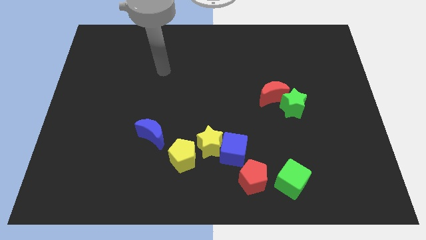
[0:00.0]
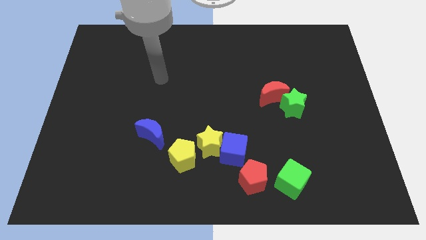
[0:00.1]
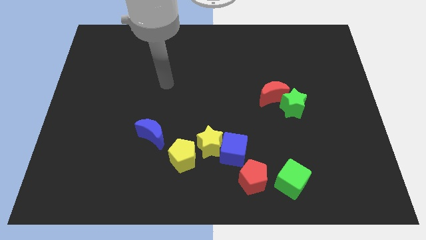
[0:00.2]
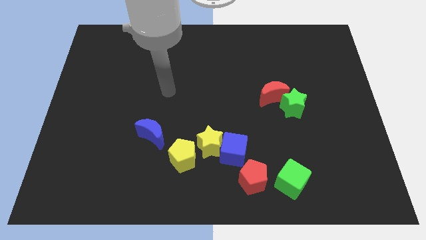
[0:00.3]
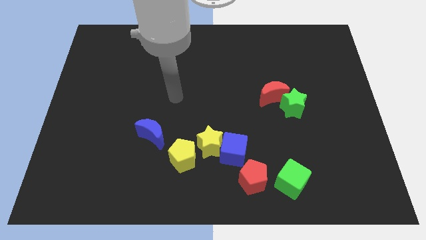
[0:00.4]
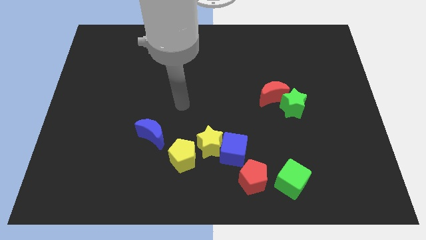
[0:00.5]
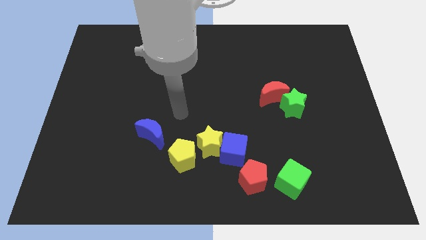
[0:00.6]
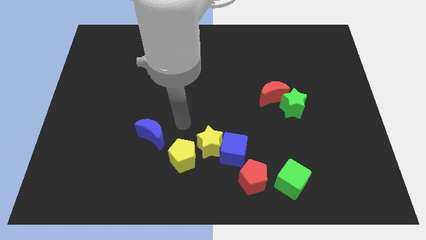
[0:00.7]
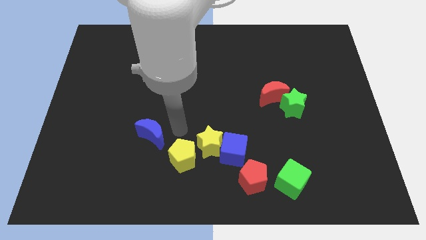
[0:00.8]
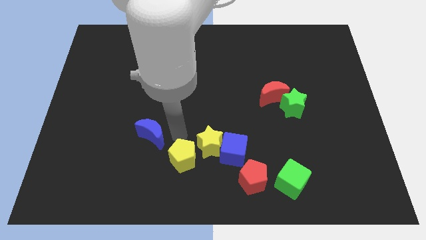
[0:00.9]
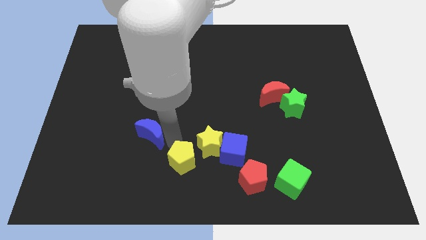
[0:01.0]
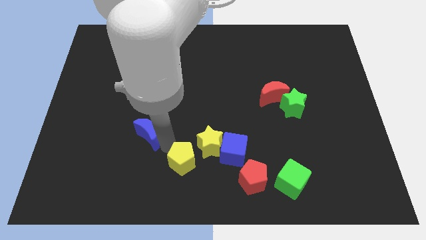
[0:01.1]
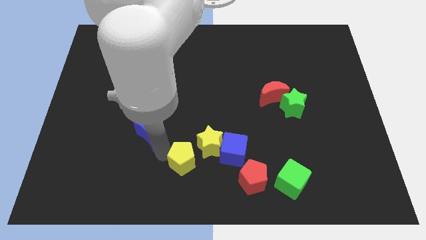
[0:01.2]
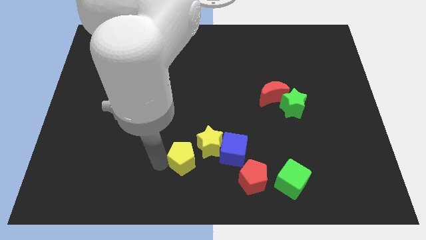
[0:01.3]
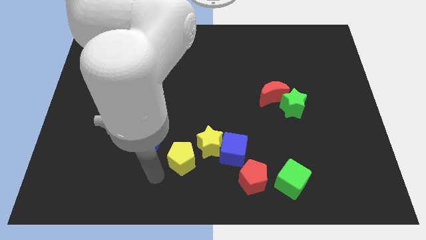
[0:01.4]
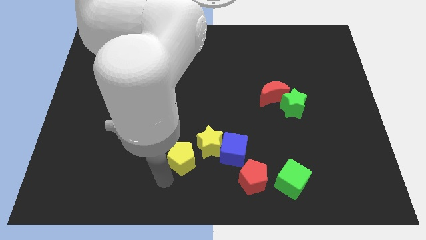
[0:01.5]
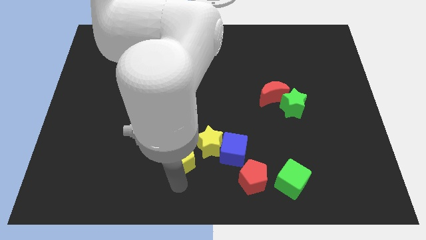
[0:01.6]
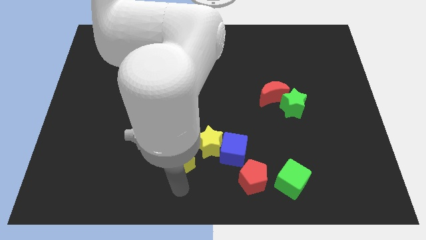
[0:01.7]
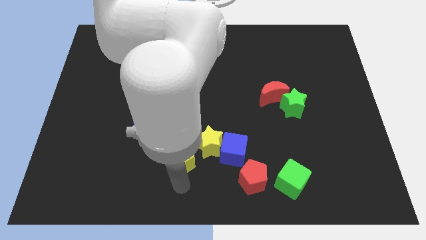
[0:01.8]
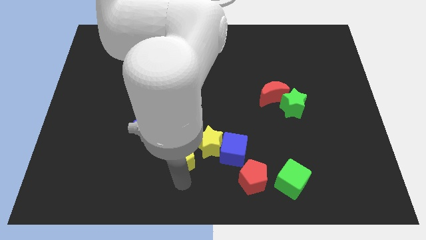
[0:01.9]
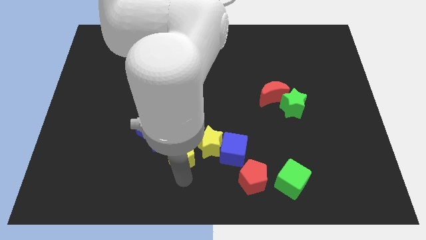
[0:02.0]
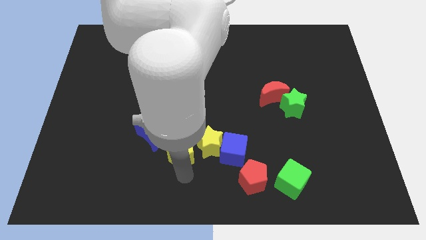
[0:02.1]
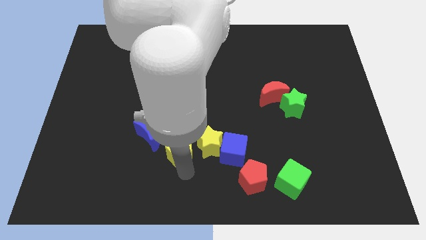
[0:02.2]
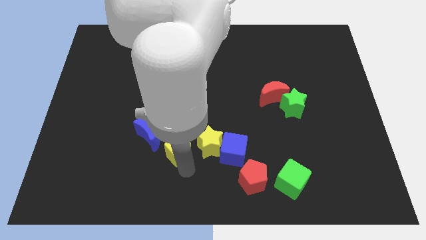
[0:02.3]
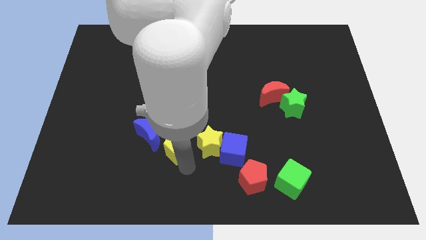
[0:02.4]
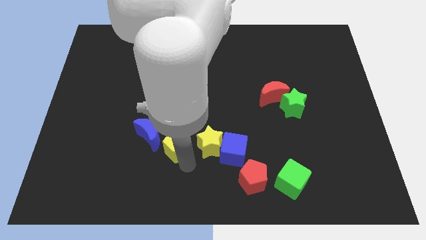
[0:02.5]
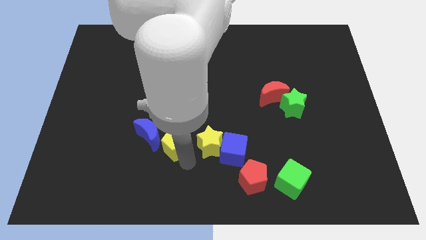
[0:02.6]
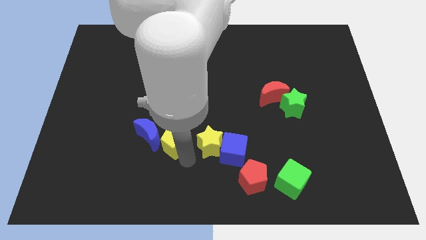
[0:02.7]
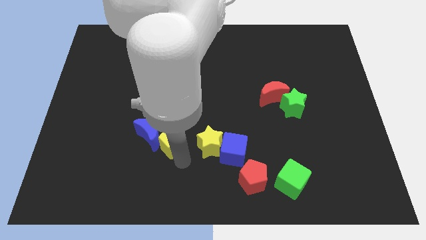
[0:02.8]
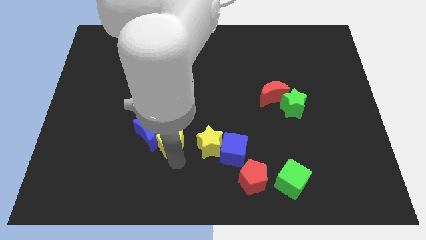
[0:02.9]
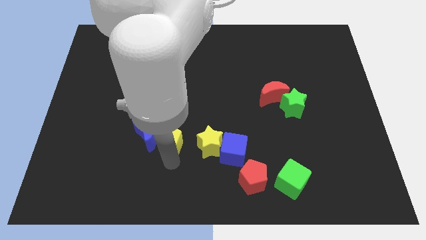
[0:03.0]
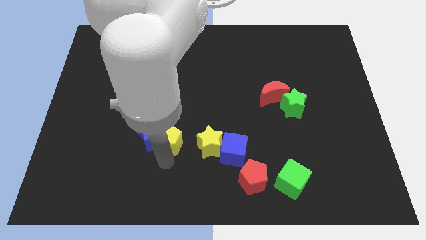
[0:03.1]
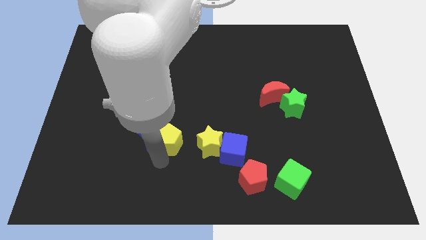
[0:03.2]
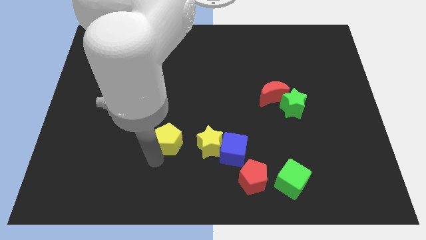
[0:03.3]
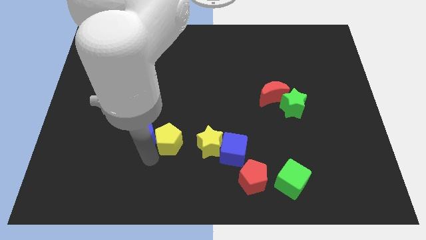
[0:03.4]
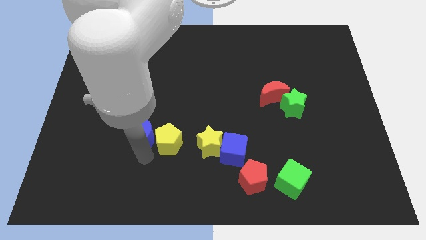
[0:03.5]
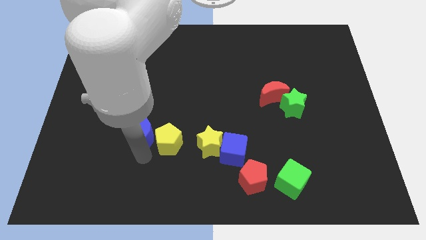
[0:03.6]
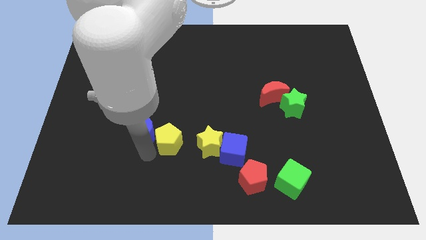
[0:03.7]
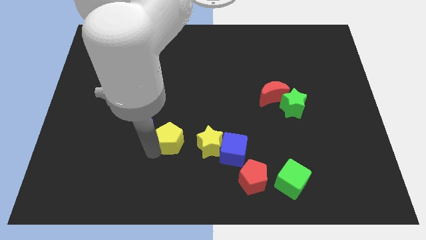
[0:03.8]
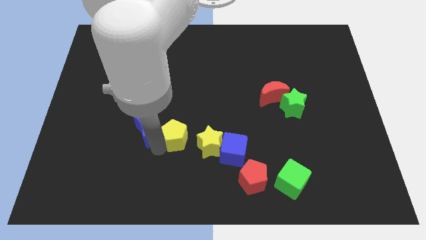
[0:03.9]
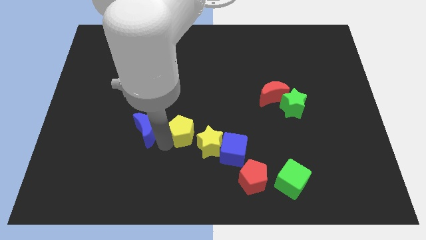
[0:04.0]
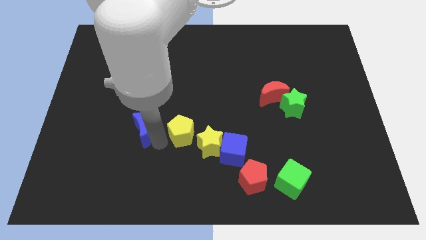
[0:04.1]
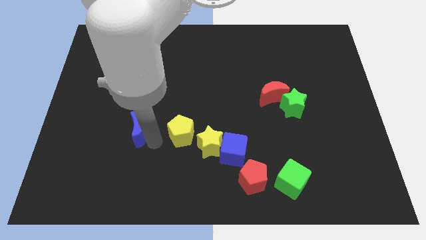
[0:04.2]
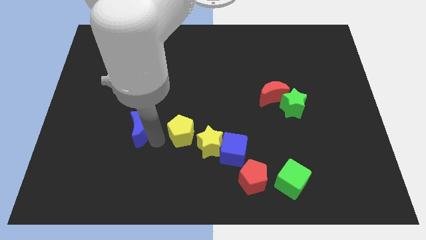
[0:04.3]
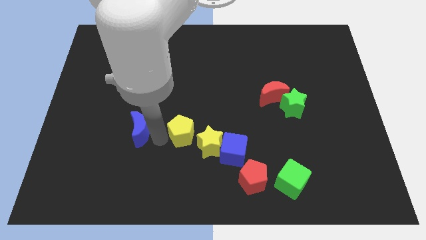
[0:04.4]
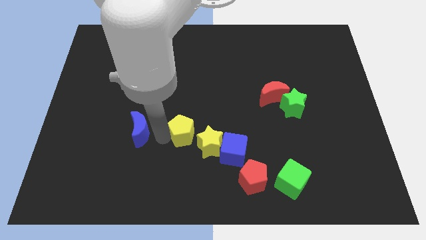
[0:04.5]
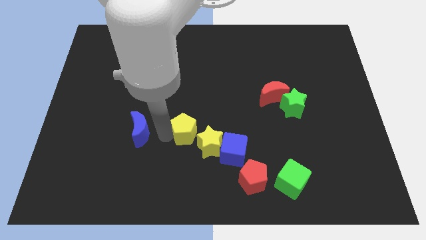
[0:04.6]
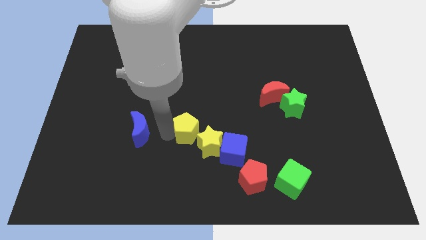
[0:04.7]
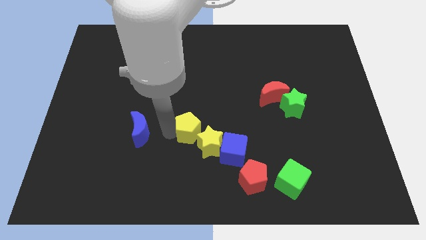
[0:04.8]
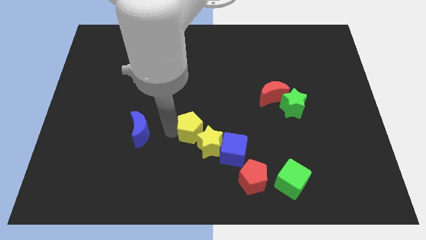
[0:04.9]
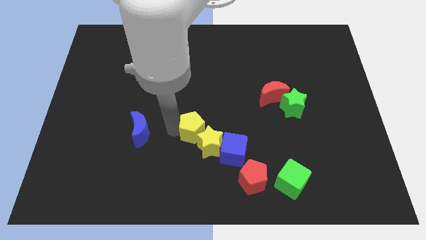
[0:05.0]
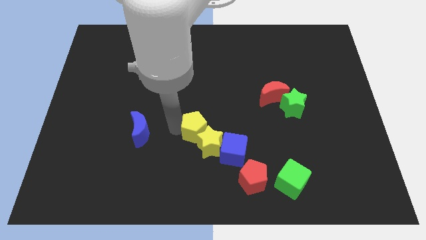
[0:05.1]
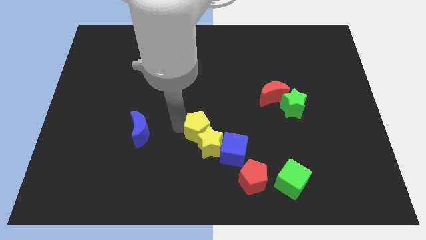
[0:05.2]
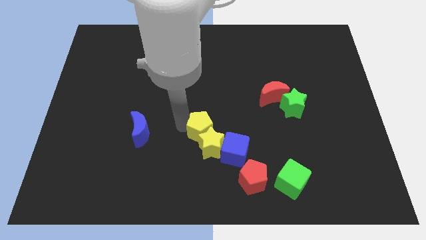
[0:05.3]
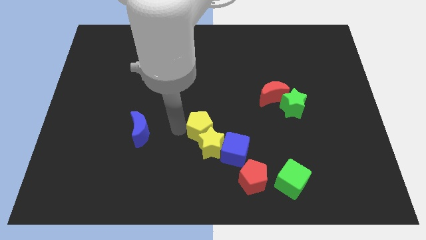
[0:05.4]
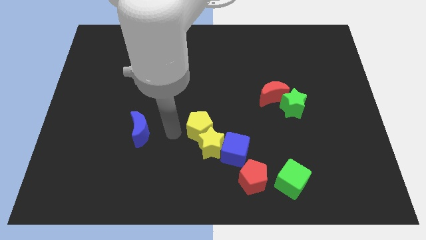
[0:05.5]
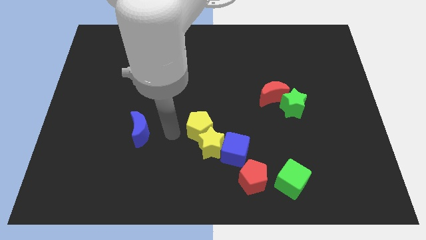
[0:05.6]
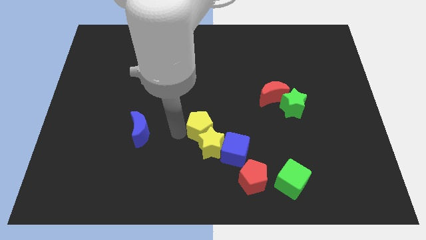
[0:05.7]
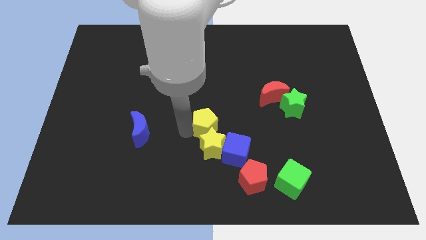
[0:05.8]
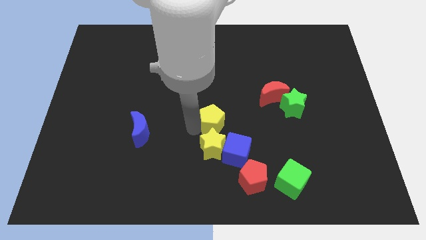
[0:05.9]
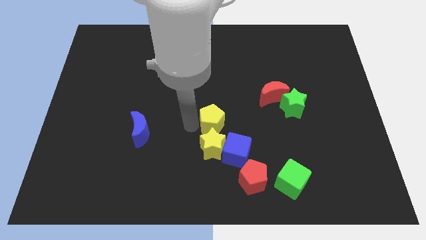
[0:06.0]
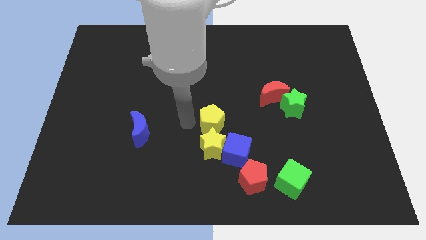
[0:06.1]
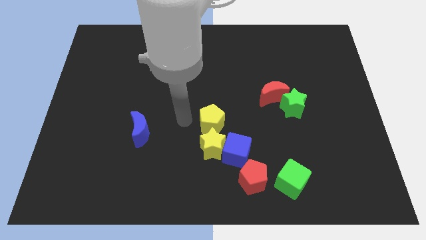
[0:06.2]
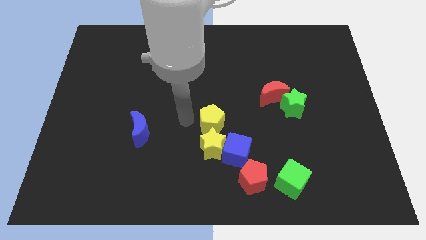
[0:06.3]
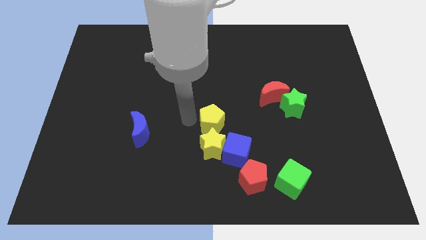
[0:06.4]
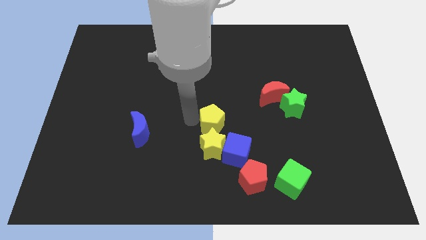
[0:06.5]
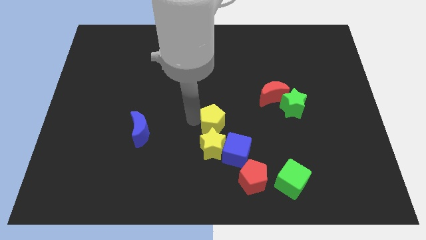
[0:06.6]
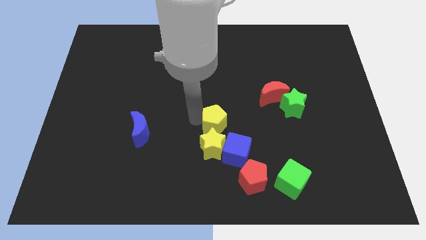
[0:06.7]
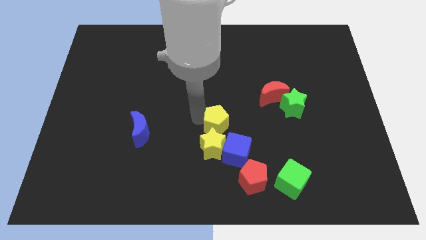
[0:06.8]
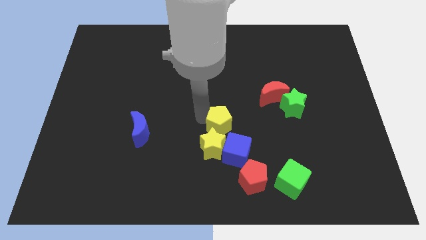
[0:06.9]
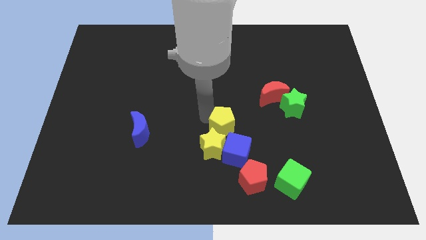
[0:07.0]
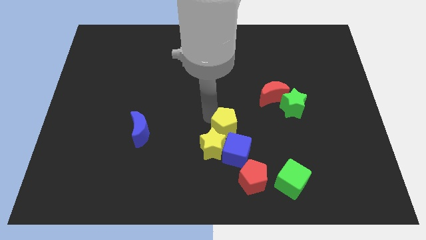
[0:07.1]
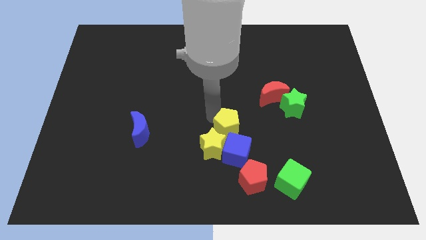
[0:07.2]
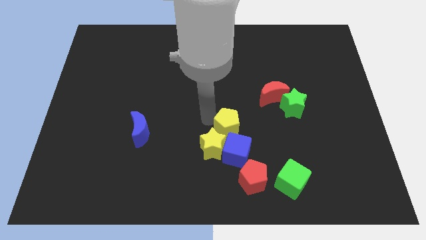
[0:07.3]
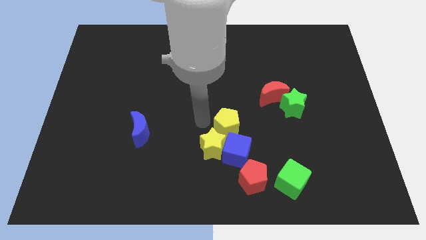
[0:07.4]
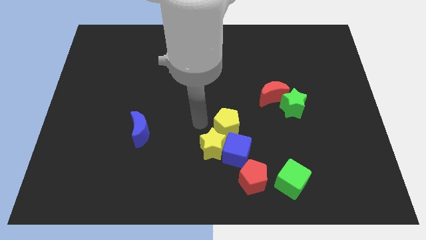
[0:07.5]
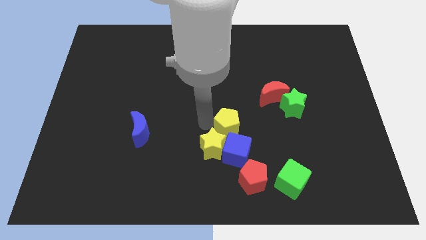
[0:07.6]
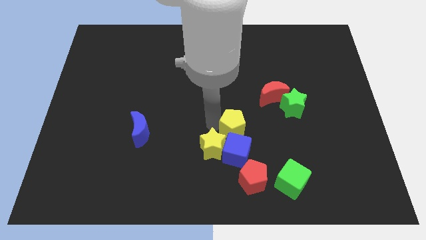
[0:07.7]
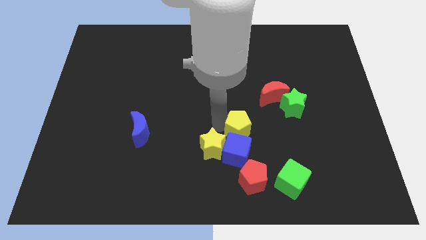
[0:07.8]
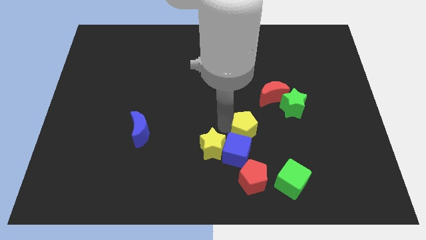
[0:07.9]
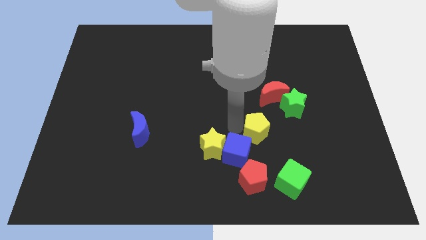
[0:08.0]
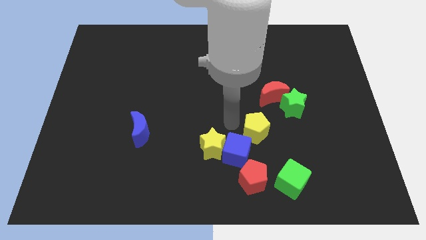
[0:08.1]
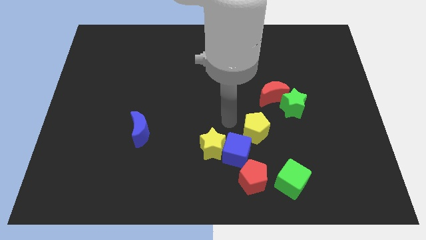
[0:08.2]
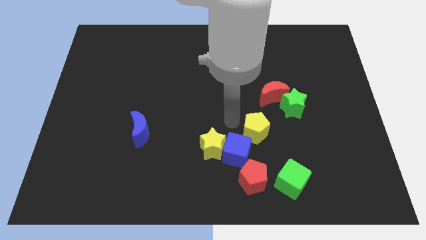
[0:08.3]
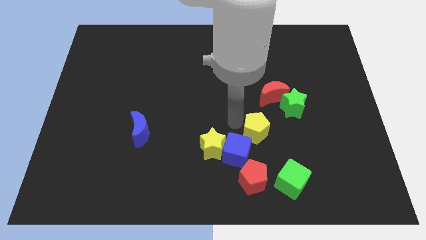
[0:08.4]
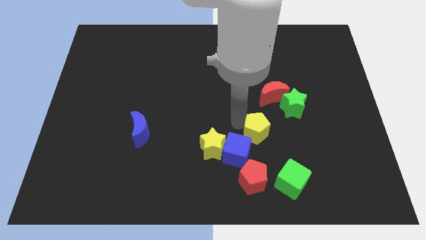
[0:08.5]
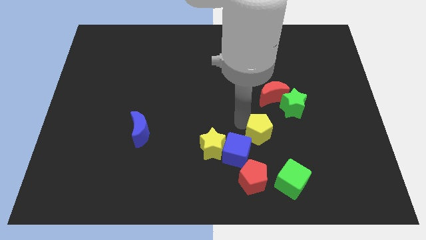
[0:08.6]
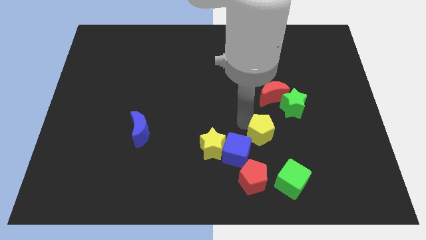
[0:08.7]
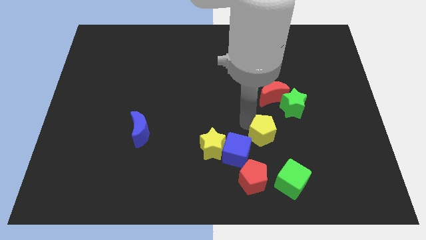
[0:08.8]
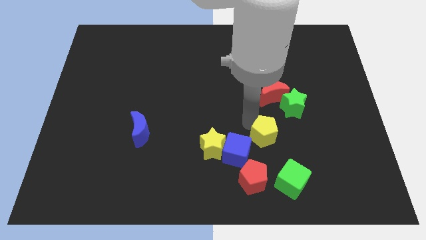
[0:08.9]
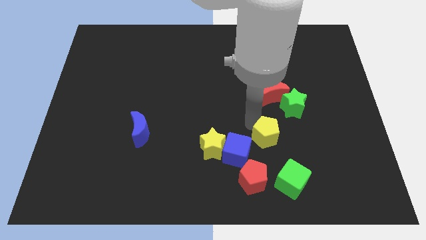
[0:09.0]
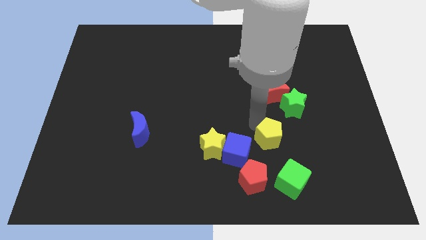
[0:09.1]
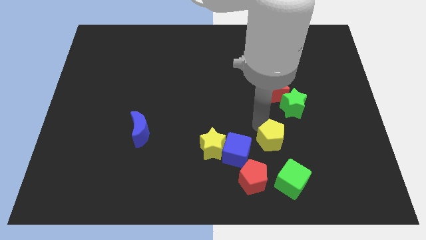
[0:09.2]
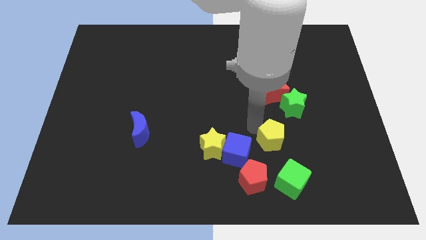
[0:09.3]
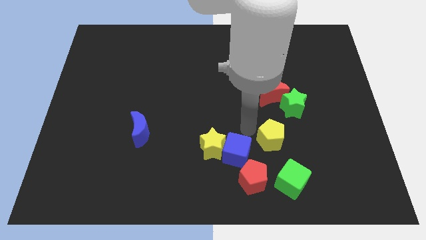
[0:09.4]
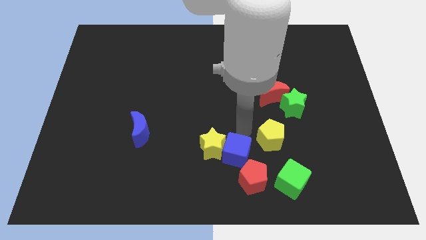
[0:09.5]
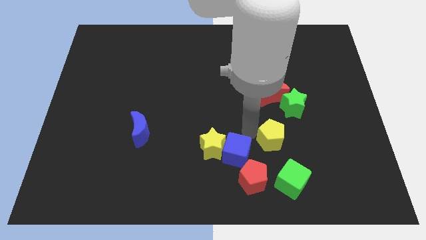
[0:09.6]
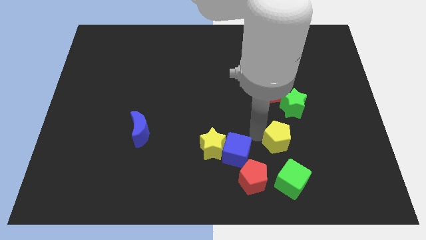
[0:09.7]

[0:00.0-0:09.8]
slide the yellow pentagon right
